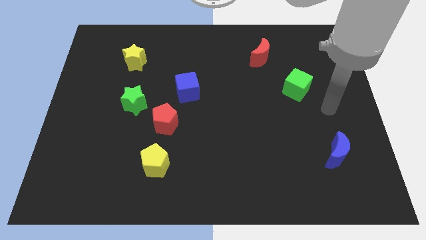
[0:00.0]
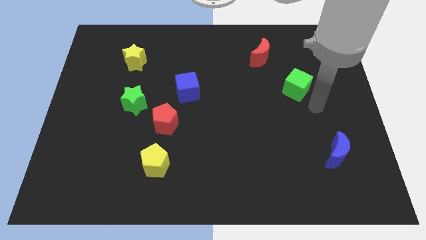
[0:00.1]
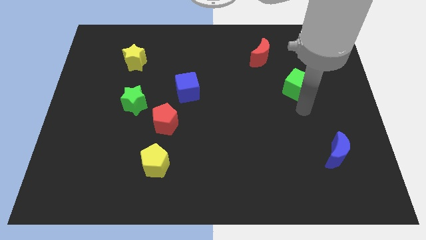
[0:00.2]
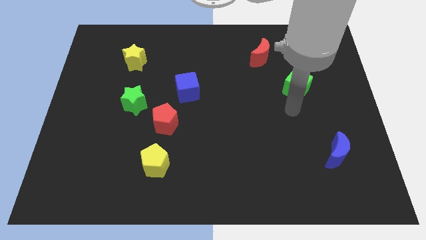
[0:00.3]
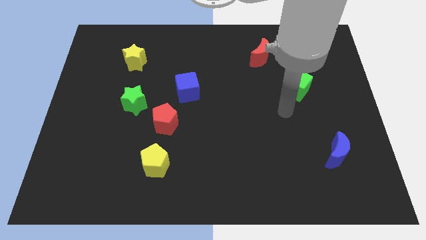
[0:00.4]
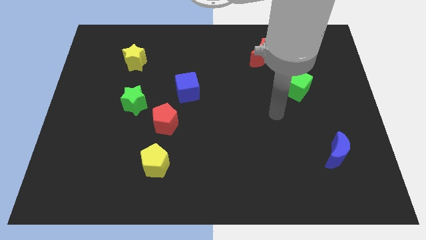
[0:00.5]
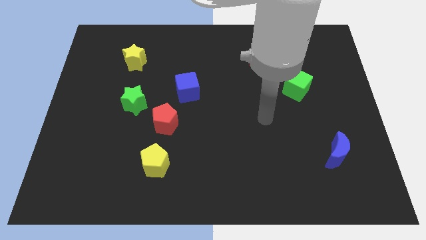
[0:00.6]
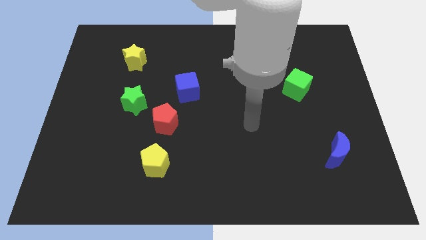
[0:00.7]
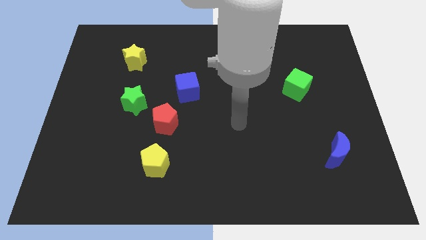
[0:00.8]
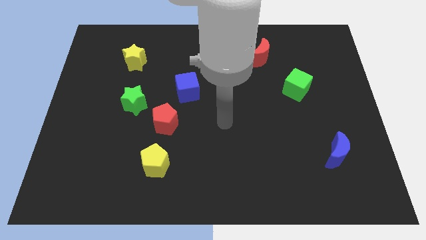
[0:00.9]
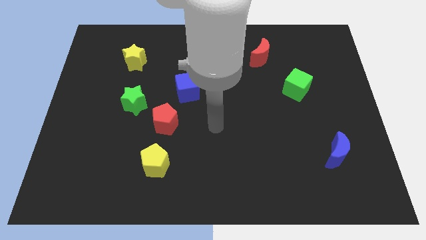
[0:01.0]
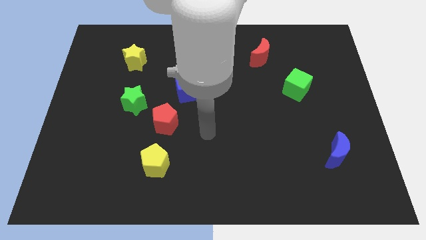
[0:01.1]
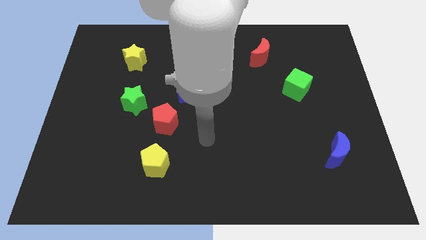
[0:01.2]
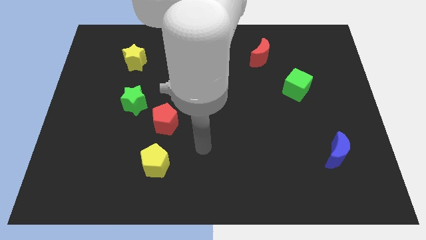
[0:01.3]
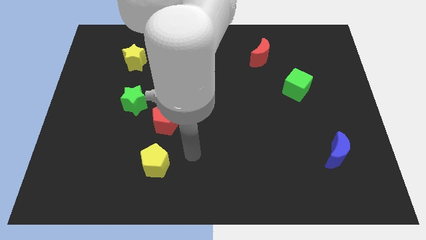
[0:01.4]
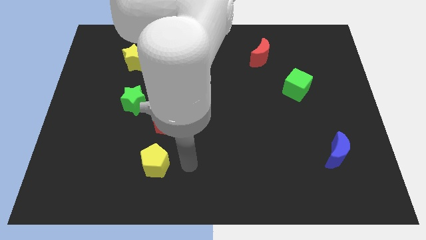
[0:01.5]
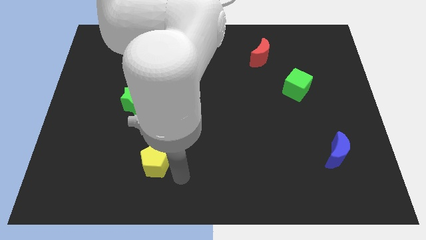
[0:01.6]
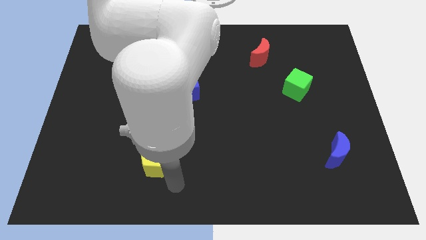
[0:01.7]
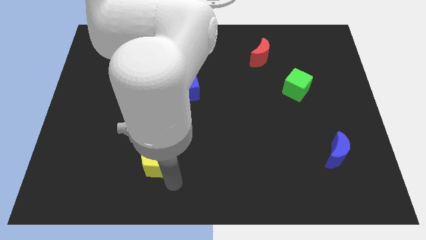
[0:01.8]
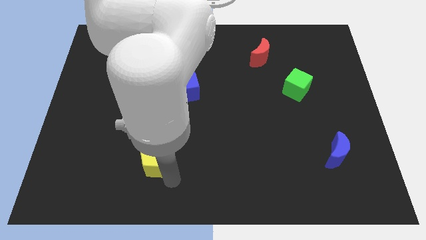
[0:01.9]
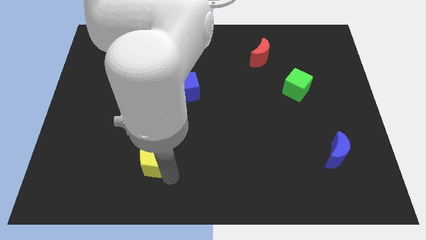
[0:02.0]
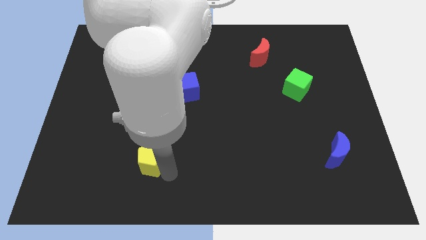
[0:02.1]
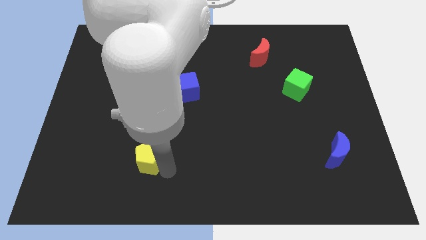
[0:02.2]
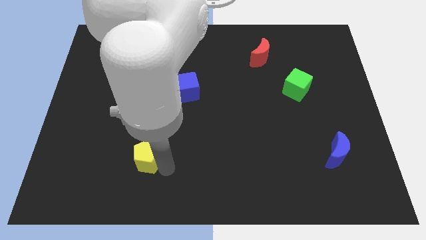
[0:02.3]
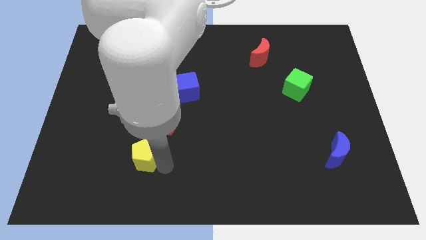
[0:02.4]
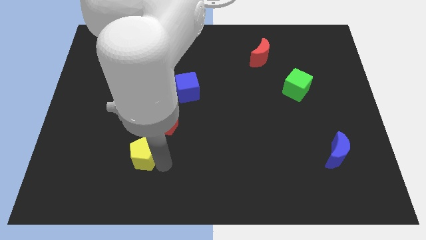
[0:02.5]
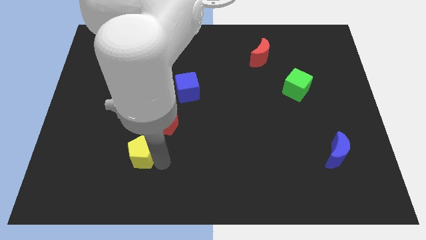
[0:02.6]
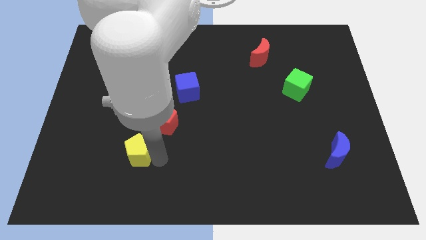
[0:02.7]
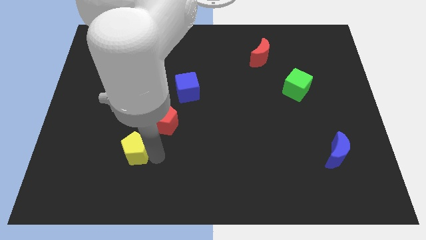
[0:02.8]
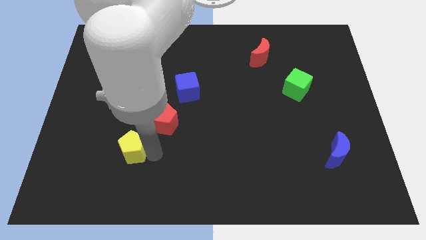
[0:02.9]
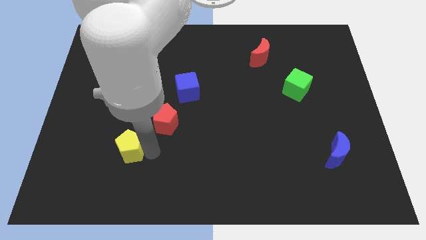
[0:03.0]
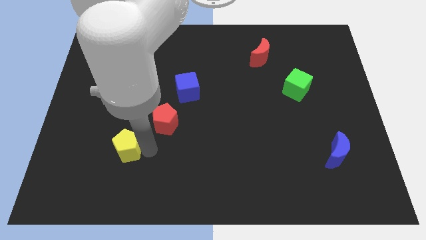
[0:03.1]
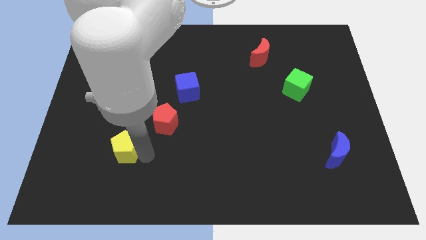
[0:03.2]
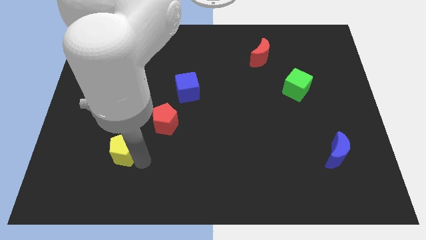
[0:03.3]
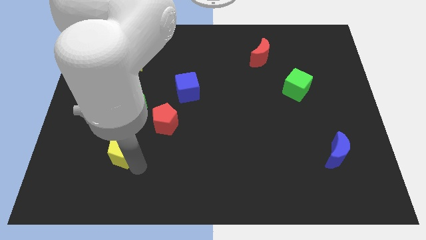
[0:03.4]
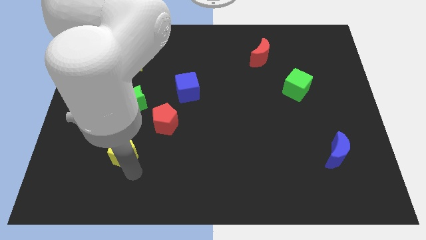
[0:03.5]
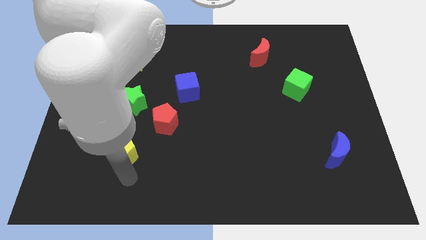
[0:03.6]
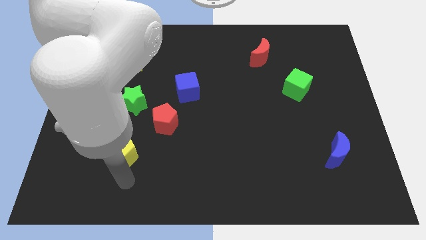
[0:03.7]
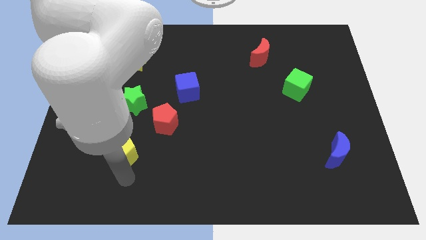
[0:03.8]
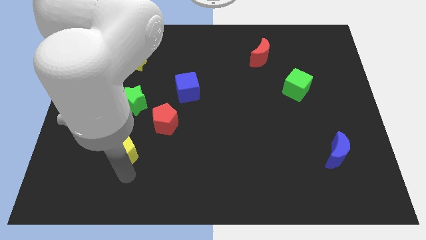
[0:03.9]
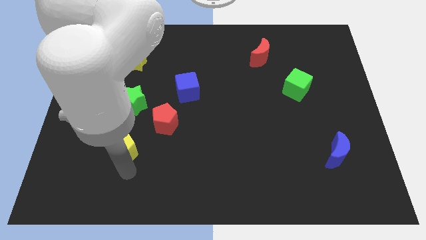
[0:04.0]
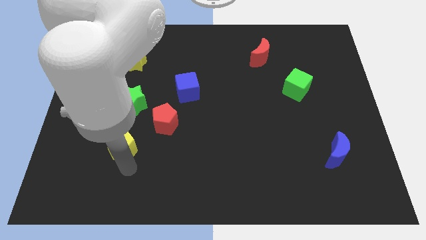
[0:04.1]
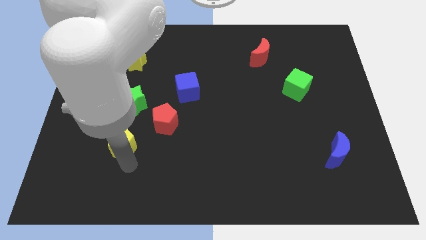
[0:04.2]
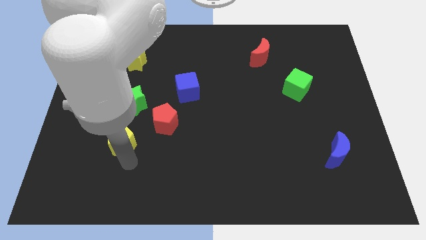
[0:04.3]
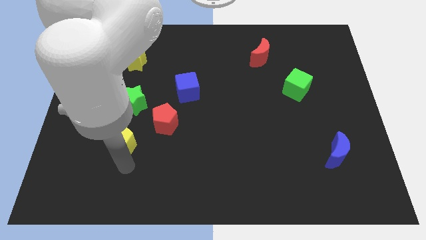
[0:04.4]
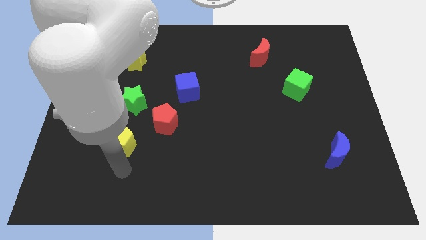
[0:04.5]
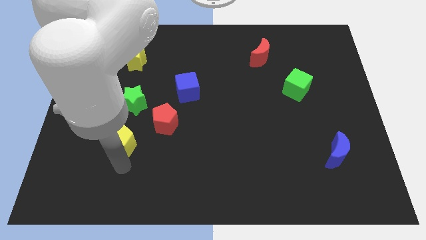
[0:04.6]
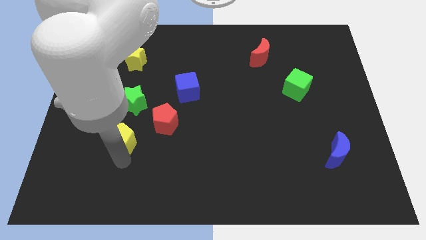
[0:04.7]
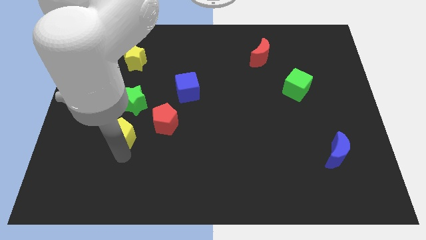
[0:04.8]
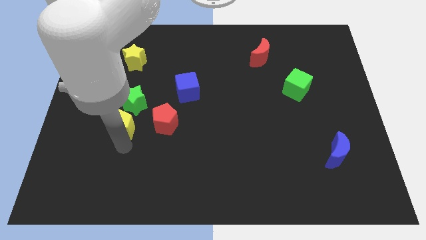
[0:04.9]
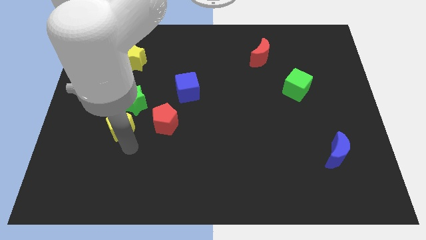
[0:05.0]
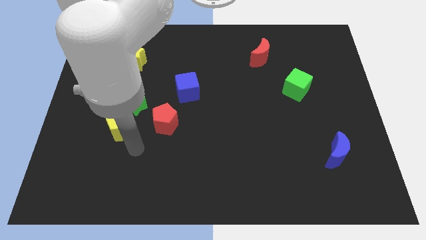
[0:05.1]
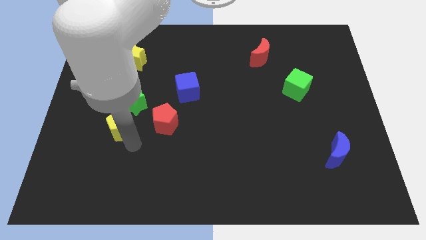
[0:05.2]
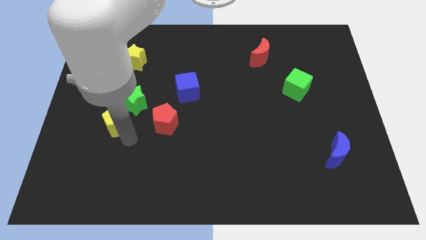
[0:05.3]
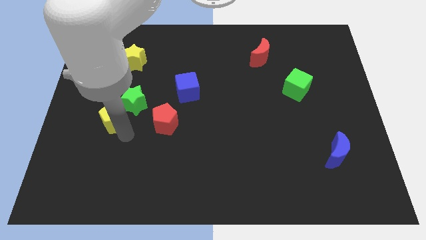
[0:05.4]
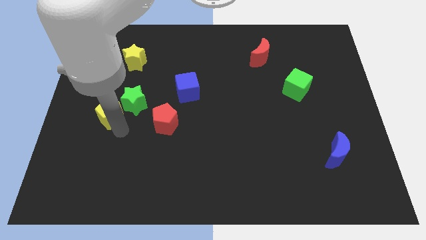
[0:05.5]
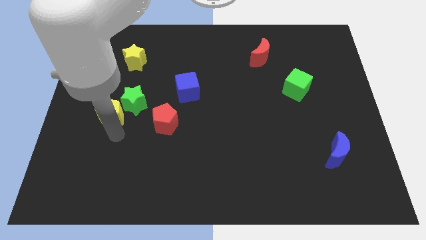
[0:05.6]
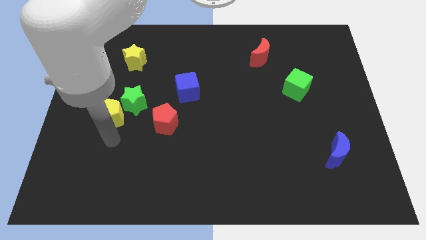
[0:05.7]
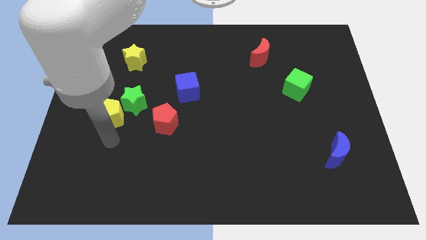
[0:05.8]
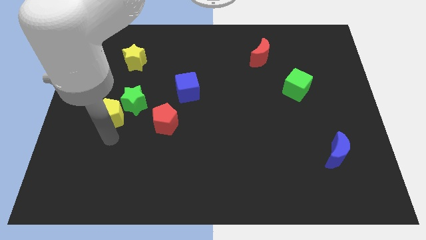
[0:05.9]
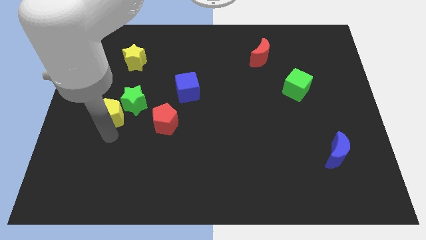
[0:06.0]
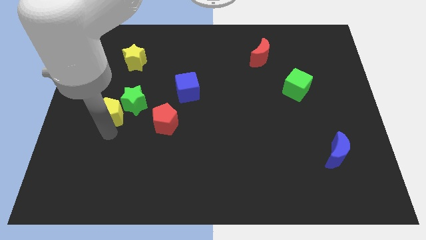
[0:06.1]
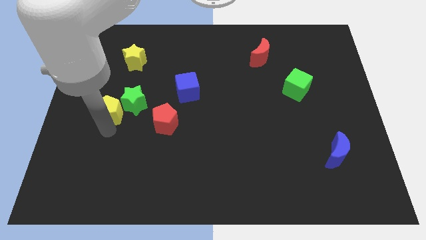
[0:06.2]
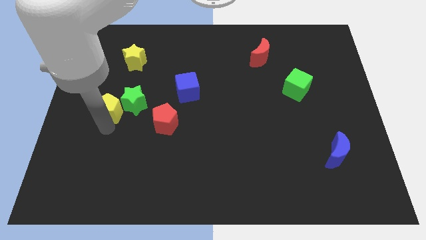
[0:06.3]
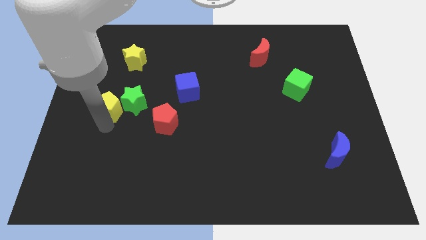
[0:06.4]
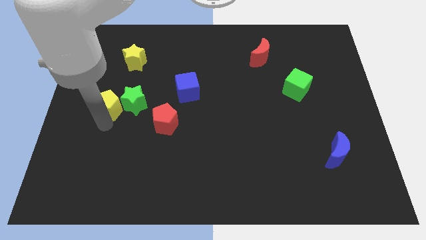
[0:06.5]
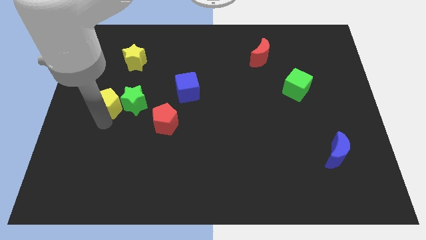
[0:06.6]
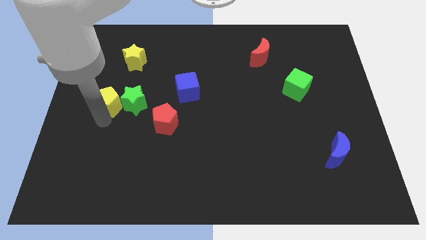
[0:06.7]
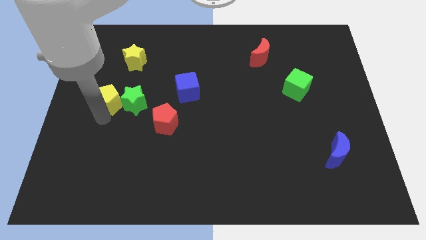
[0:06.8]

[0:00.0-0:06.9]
put the yellow pentagon to the bottom of the yellow star
